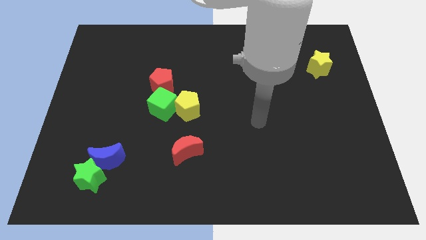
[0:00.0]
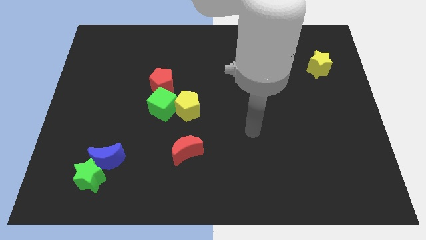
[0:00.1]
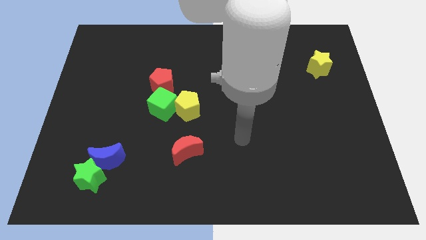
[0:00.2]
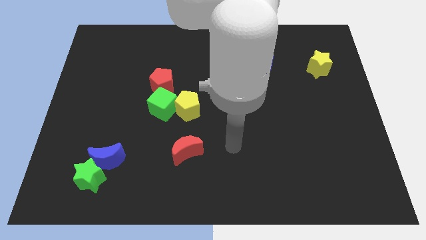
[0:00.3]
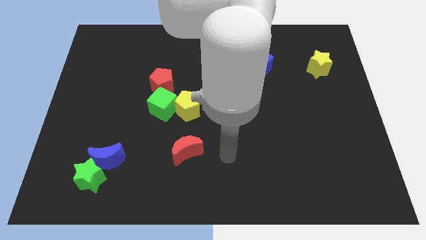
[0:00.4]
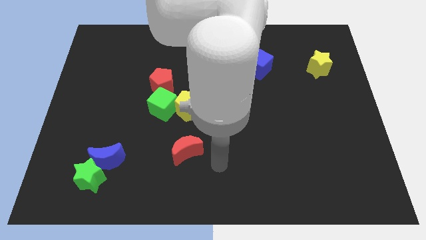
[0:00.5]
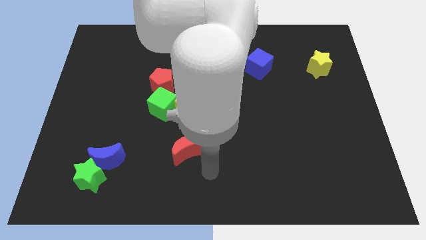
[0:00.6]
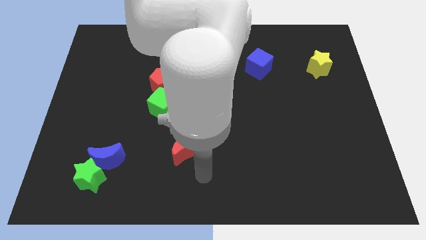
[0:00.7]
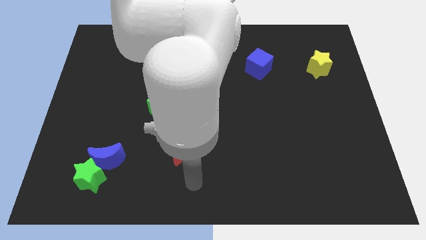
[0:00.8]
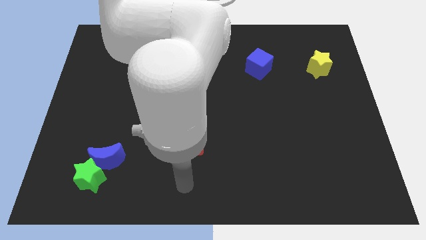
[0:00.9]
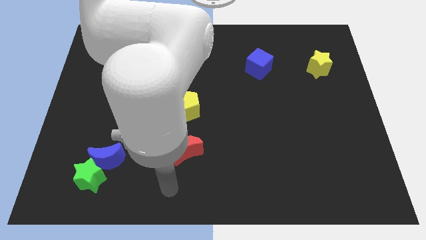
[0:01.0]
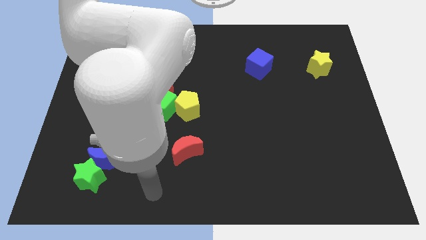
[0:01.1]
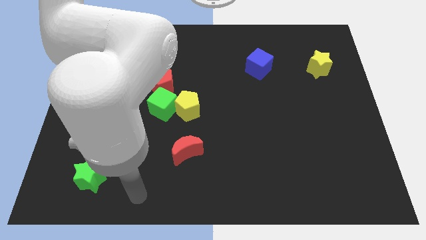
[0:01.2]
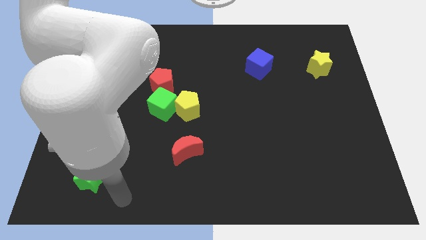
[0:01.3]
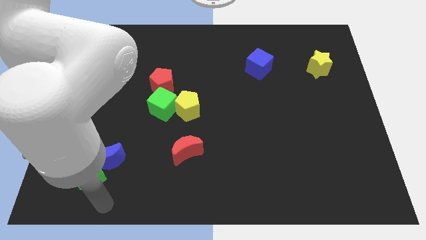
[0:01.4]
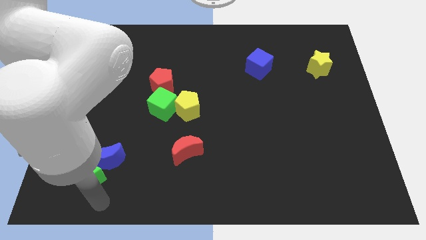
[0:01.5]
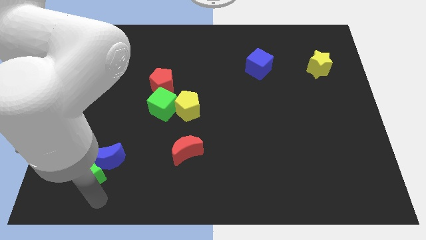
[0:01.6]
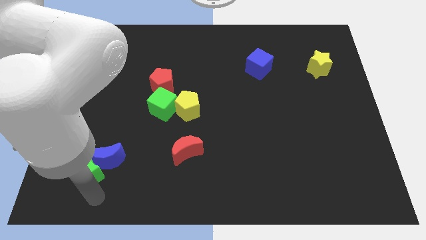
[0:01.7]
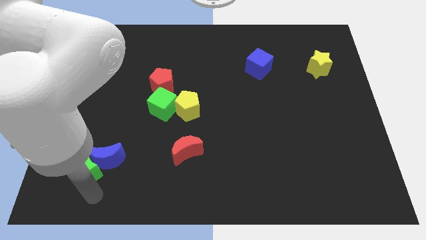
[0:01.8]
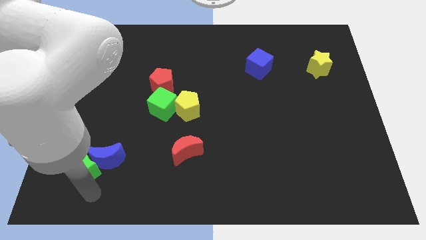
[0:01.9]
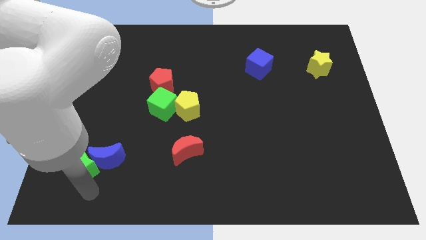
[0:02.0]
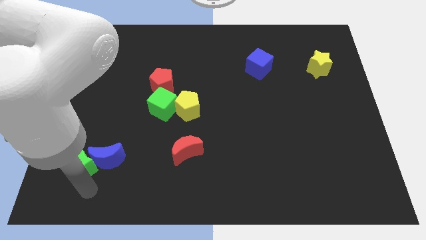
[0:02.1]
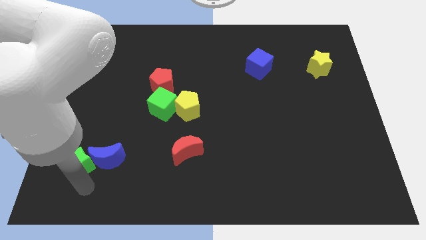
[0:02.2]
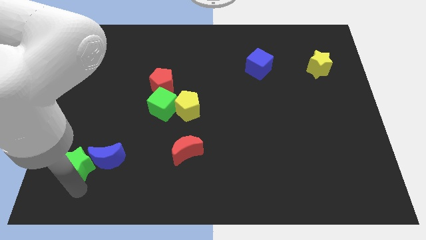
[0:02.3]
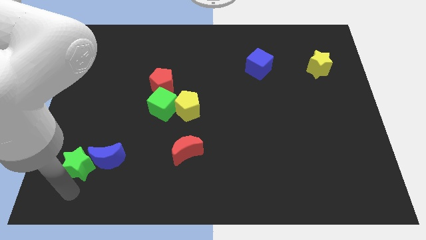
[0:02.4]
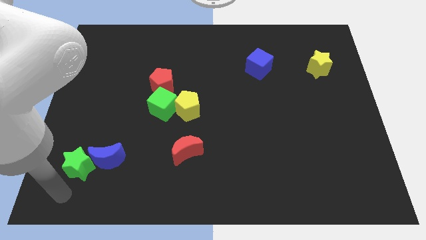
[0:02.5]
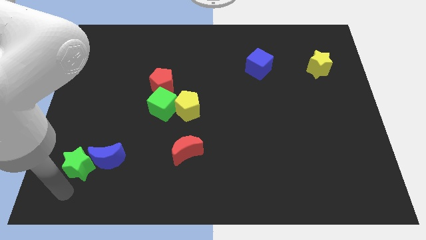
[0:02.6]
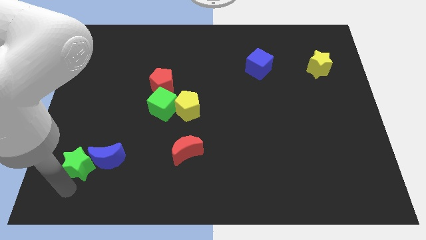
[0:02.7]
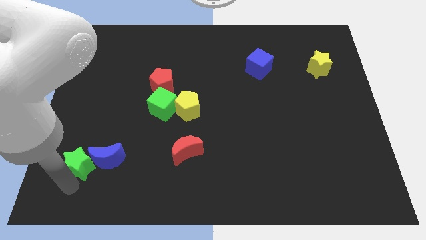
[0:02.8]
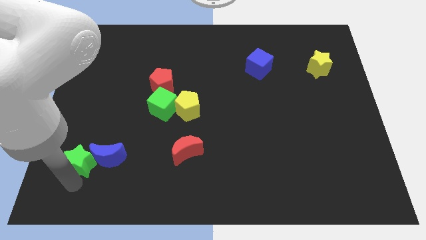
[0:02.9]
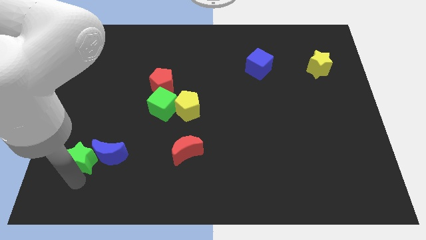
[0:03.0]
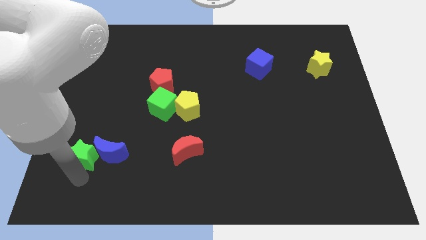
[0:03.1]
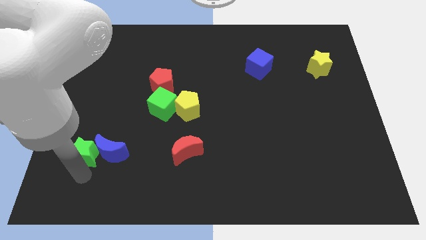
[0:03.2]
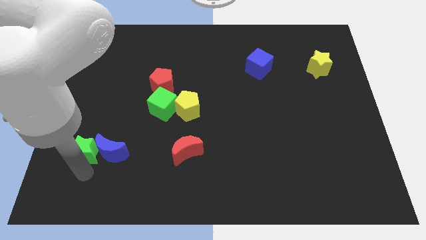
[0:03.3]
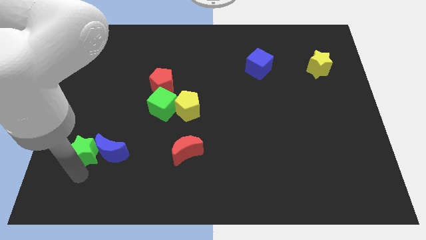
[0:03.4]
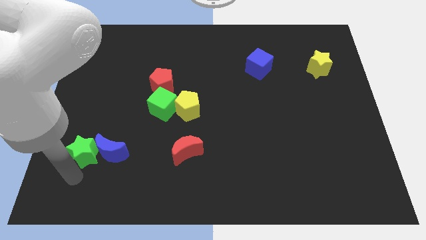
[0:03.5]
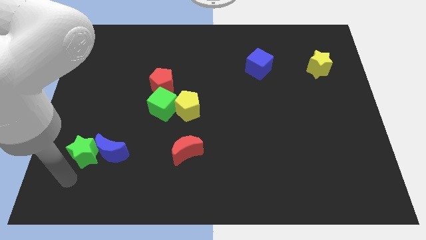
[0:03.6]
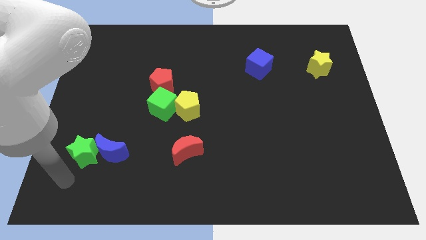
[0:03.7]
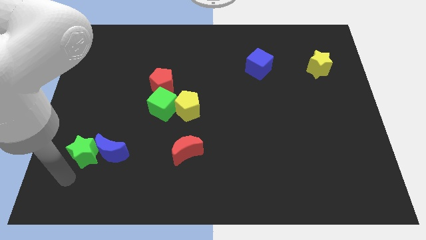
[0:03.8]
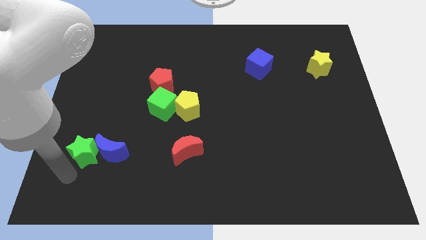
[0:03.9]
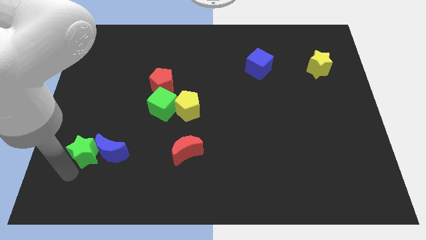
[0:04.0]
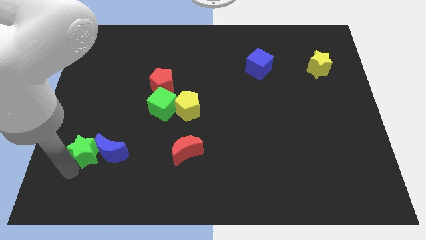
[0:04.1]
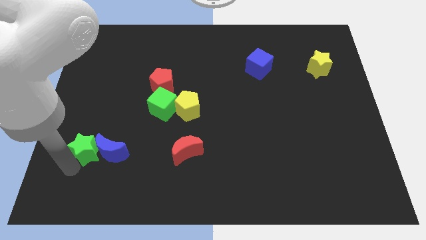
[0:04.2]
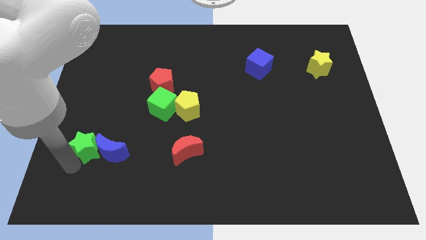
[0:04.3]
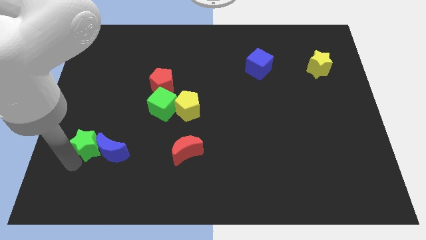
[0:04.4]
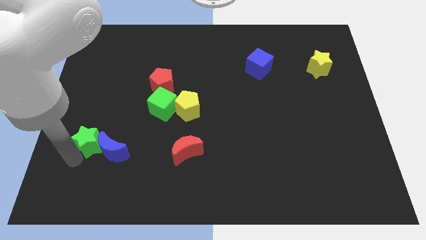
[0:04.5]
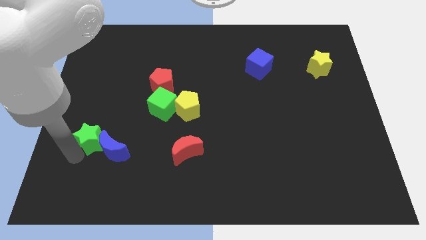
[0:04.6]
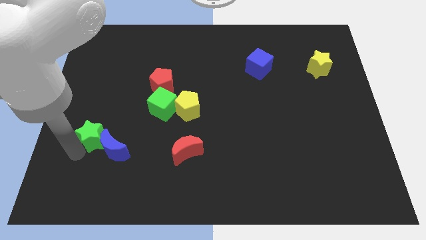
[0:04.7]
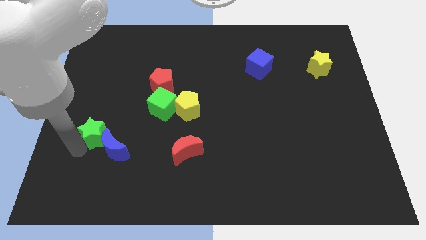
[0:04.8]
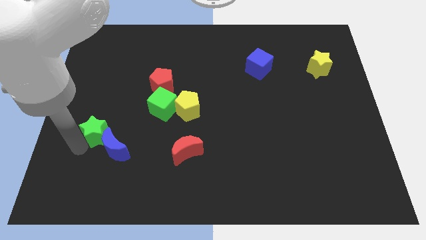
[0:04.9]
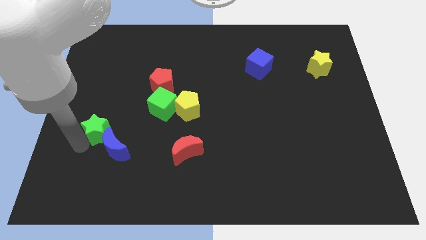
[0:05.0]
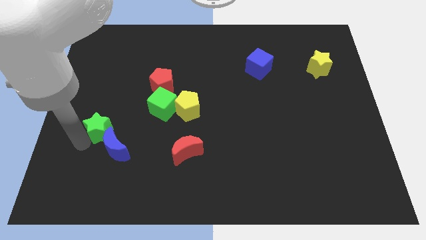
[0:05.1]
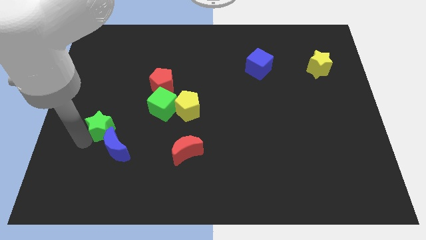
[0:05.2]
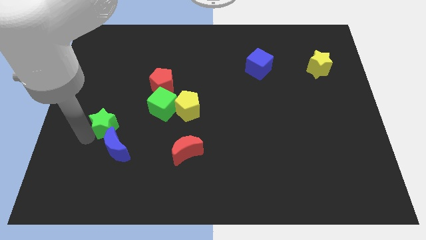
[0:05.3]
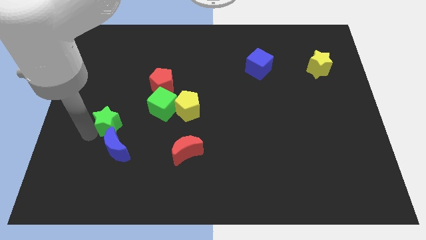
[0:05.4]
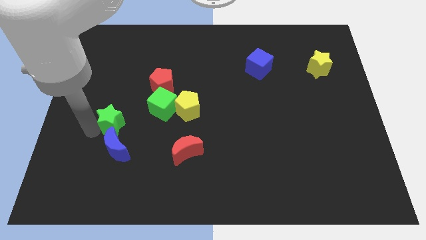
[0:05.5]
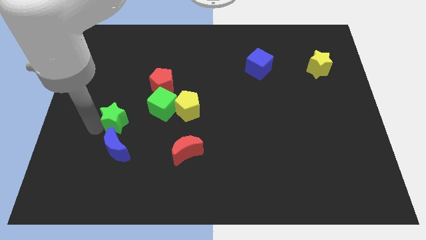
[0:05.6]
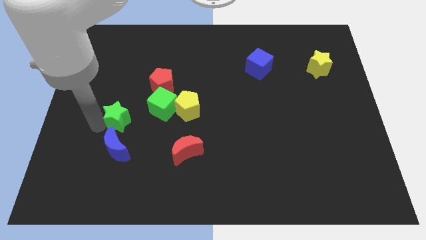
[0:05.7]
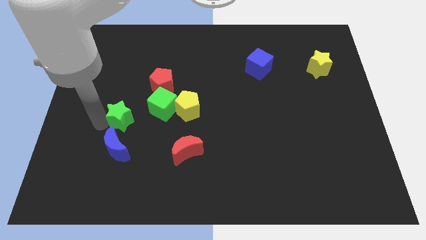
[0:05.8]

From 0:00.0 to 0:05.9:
put the green star to the left of the yellow pentagon

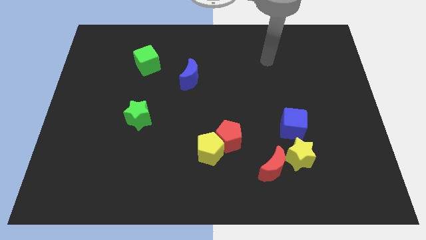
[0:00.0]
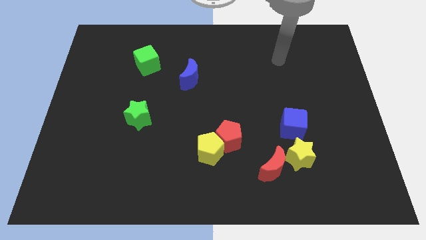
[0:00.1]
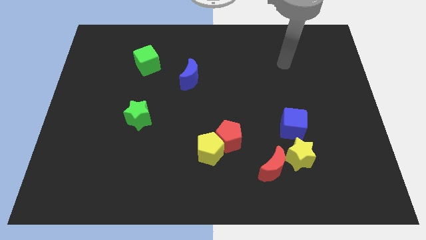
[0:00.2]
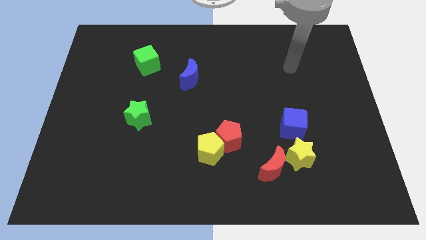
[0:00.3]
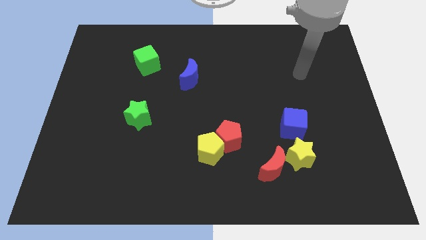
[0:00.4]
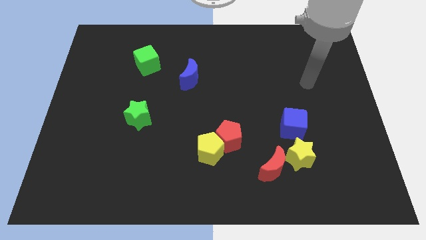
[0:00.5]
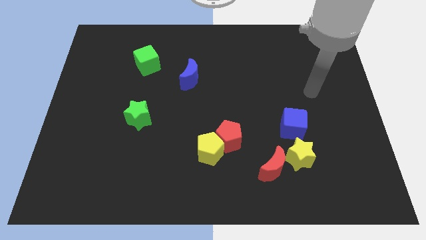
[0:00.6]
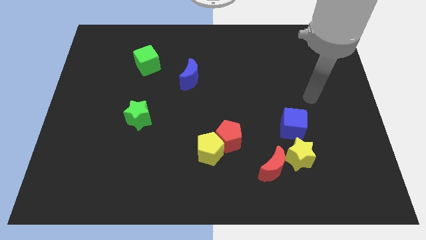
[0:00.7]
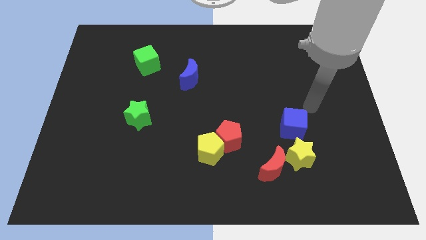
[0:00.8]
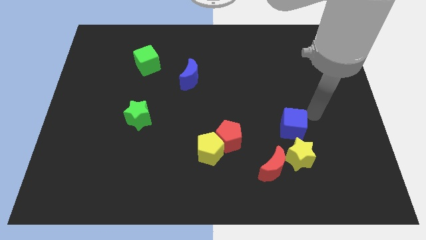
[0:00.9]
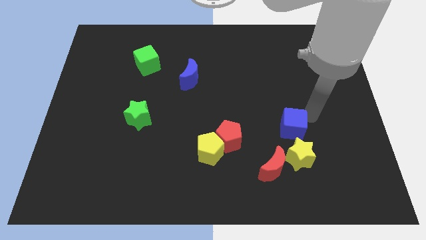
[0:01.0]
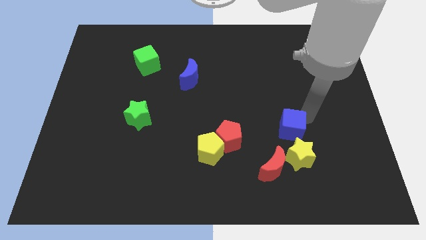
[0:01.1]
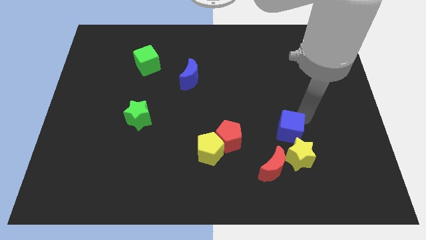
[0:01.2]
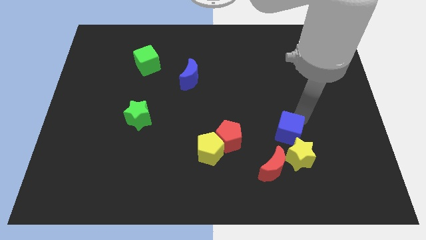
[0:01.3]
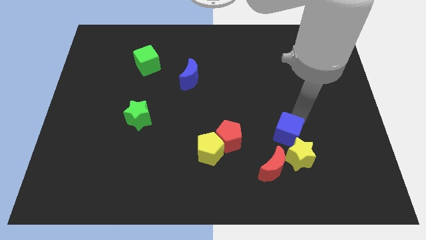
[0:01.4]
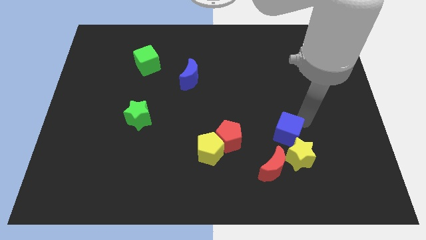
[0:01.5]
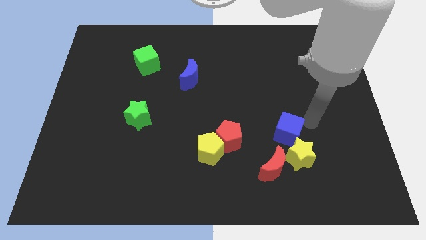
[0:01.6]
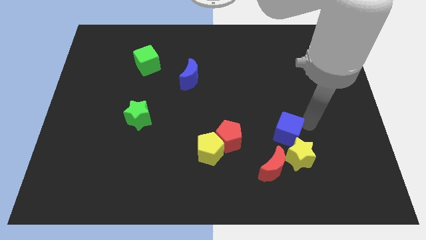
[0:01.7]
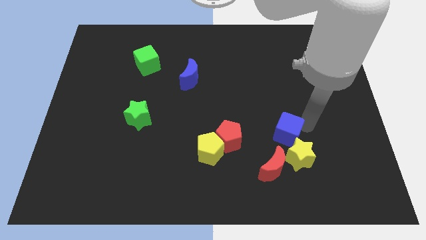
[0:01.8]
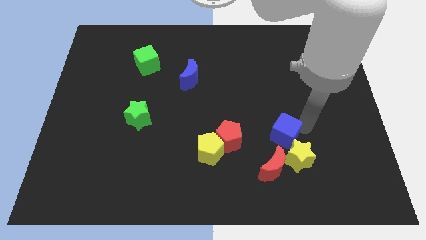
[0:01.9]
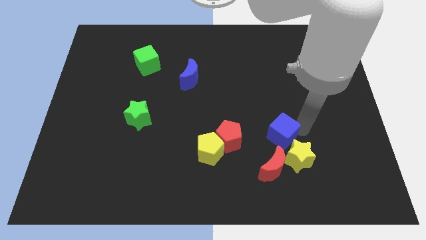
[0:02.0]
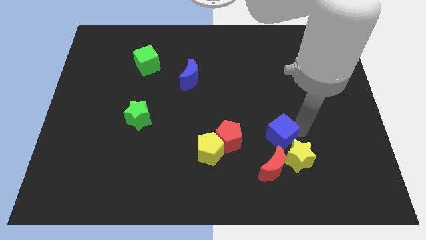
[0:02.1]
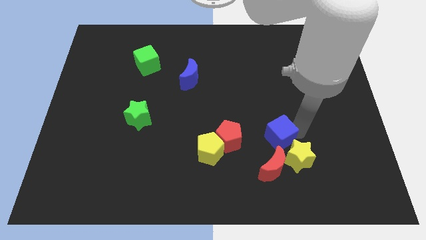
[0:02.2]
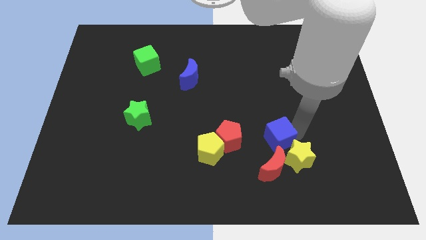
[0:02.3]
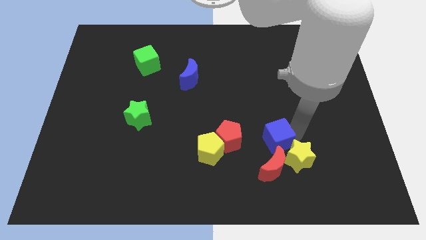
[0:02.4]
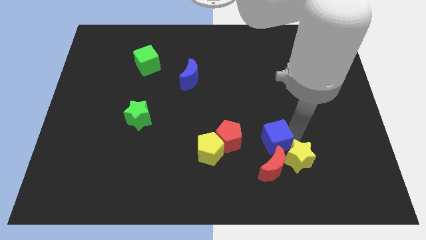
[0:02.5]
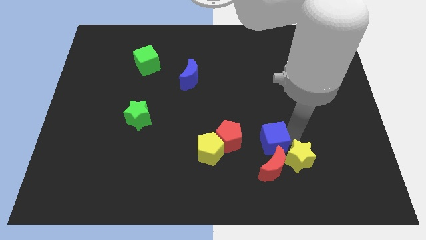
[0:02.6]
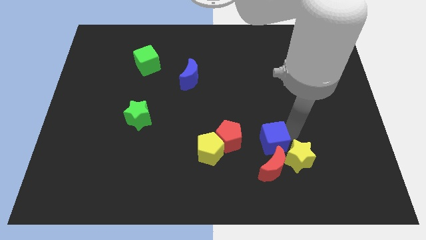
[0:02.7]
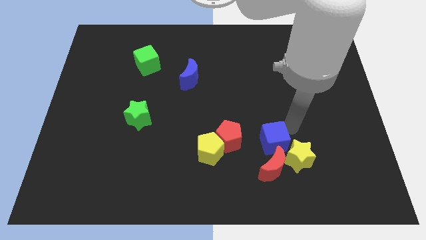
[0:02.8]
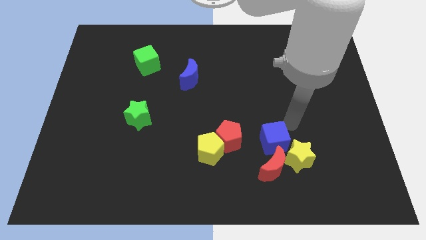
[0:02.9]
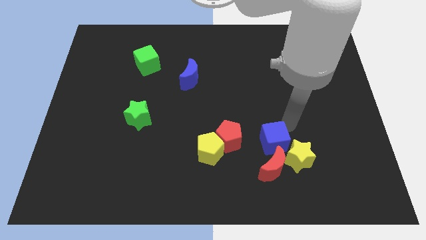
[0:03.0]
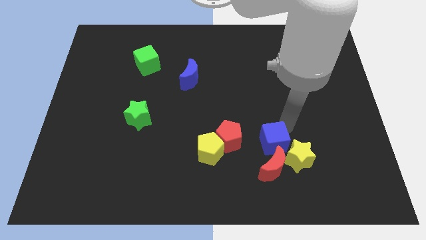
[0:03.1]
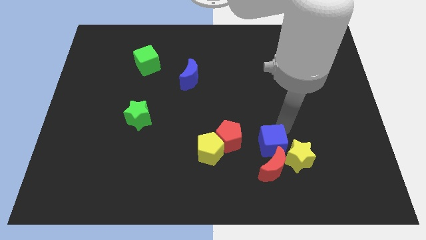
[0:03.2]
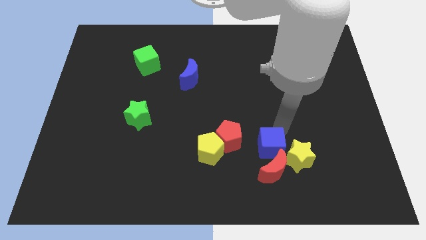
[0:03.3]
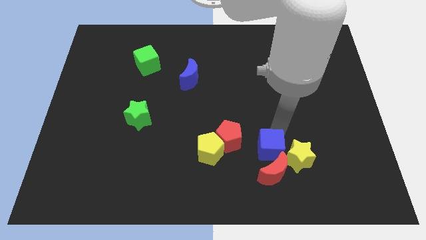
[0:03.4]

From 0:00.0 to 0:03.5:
slide the blue cube to the bottom right of the red pentagon
